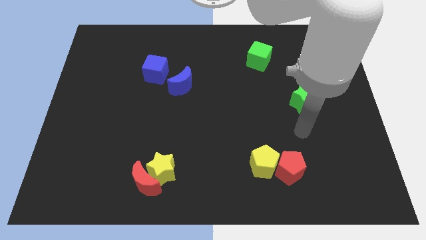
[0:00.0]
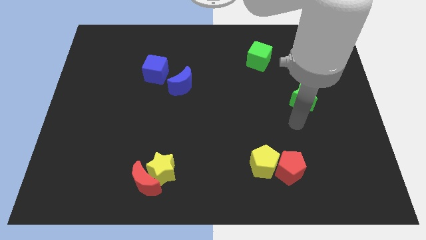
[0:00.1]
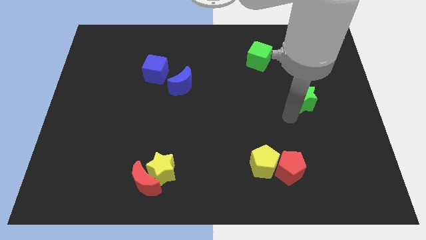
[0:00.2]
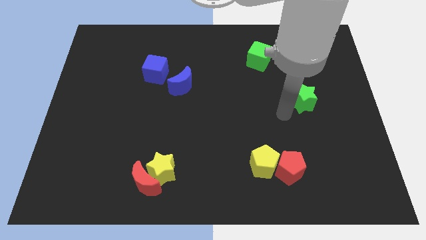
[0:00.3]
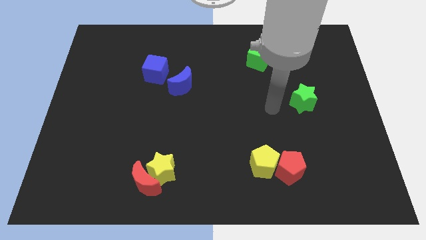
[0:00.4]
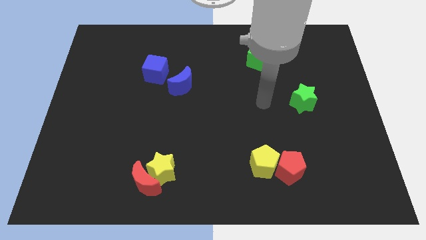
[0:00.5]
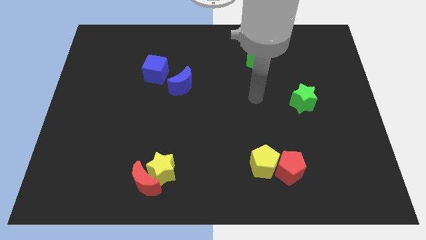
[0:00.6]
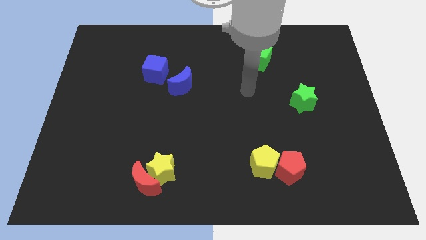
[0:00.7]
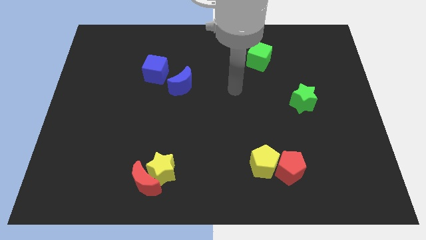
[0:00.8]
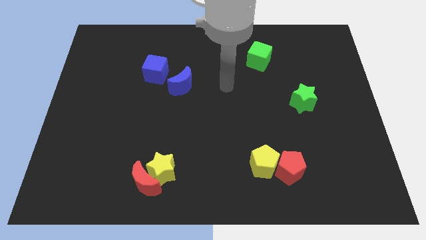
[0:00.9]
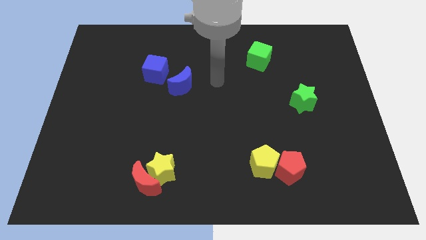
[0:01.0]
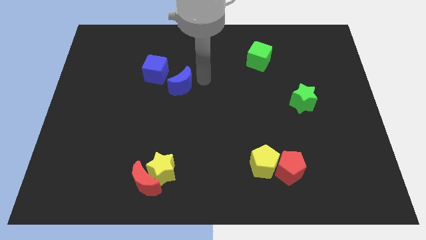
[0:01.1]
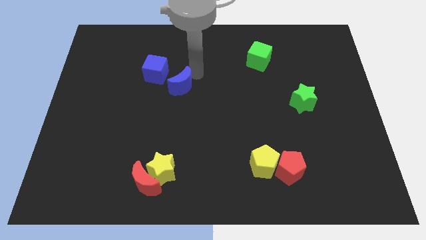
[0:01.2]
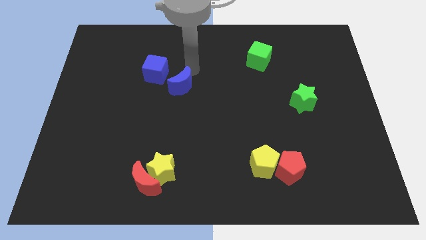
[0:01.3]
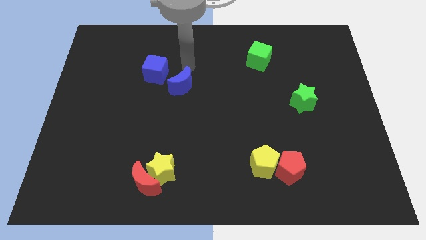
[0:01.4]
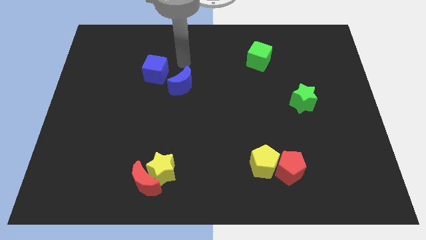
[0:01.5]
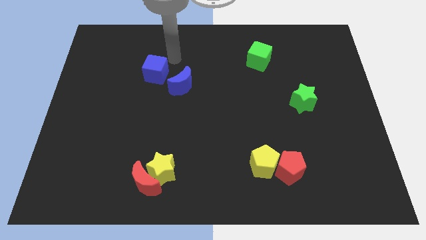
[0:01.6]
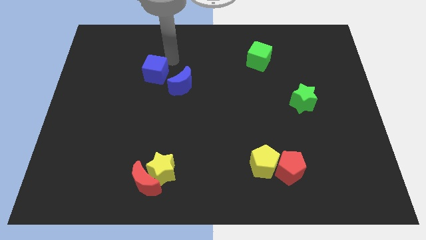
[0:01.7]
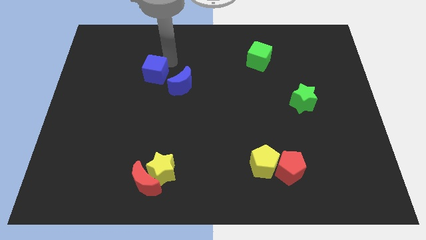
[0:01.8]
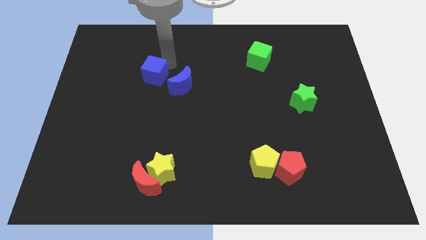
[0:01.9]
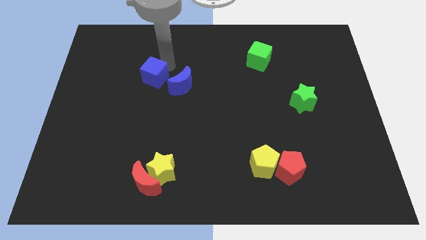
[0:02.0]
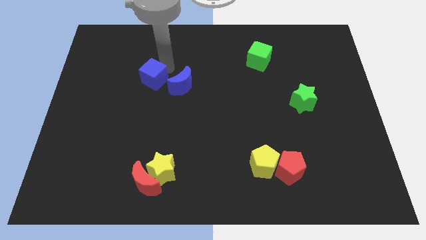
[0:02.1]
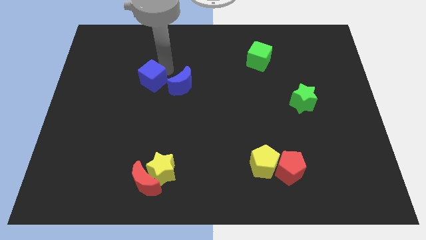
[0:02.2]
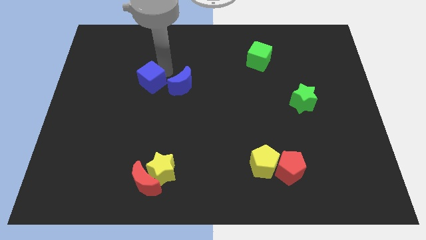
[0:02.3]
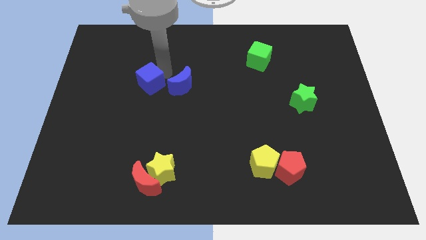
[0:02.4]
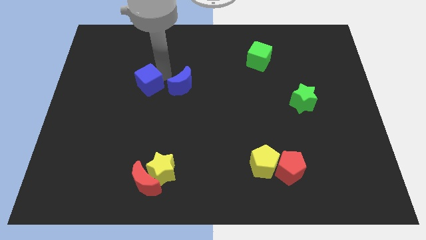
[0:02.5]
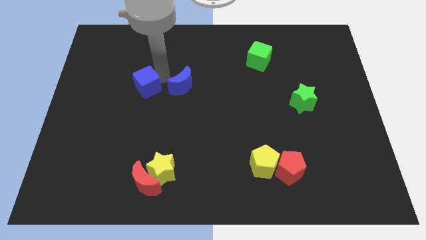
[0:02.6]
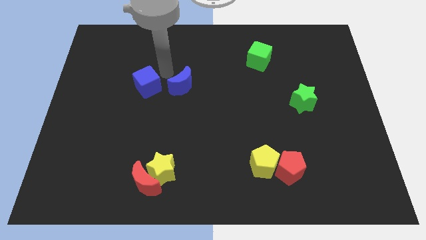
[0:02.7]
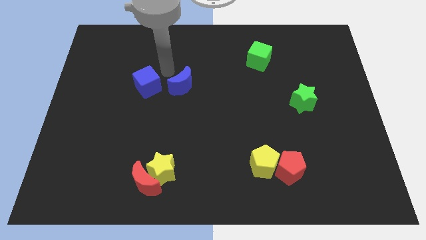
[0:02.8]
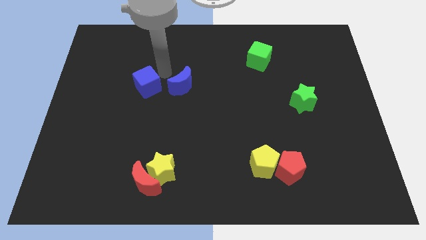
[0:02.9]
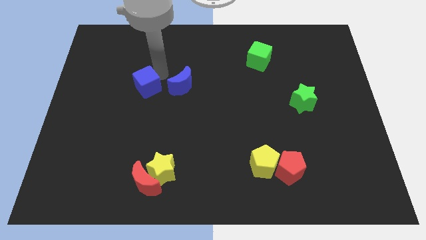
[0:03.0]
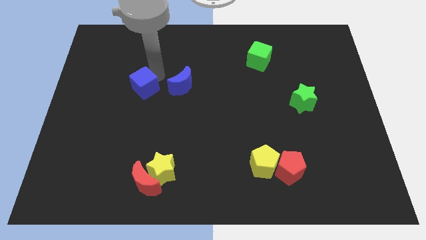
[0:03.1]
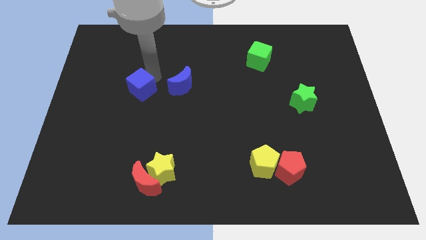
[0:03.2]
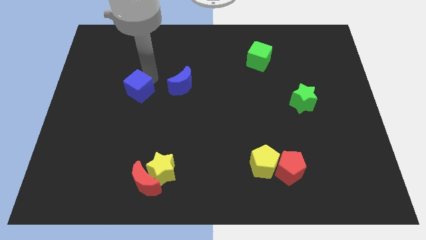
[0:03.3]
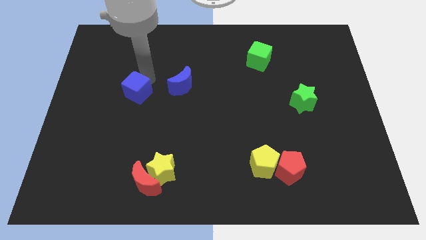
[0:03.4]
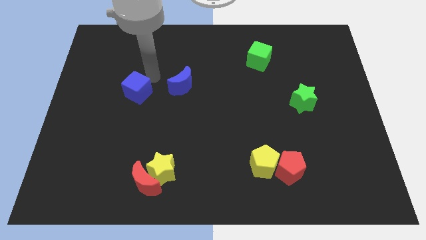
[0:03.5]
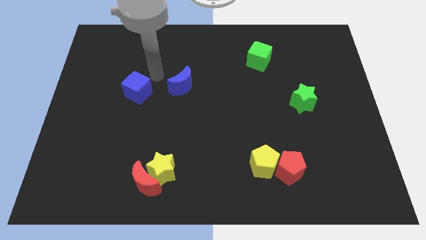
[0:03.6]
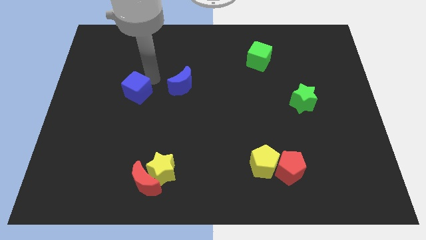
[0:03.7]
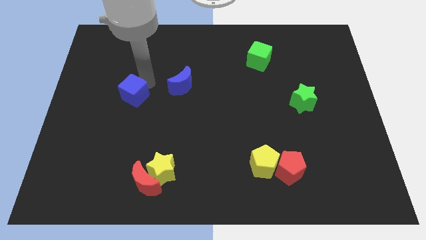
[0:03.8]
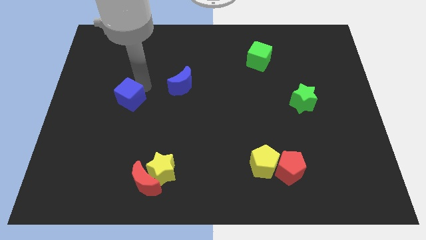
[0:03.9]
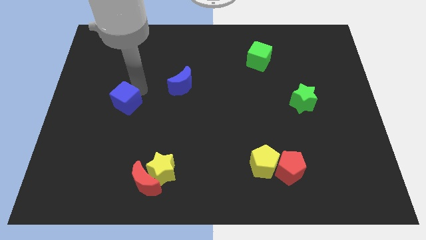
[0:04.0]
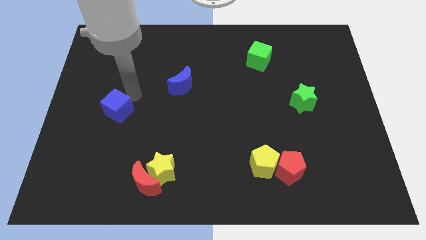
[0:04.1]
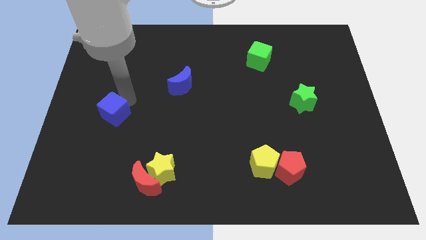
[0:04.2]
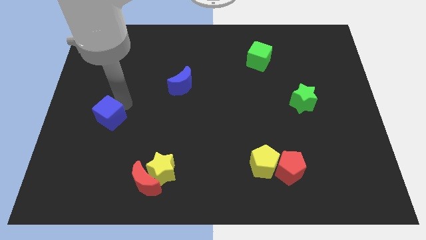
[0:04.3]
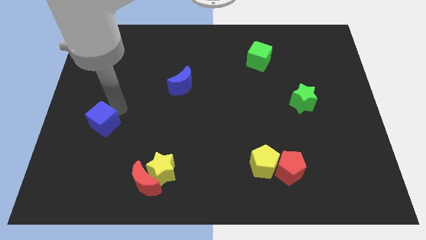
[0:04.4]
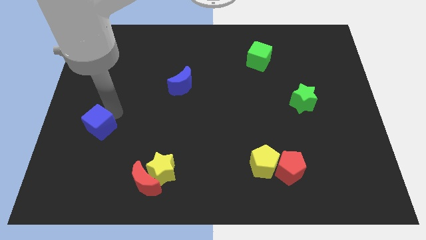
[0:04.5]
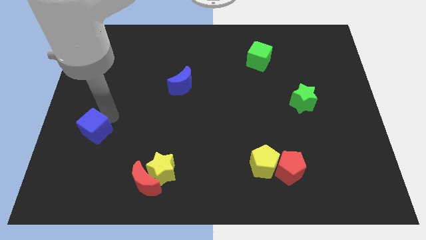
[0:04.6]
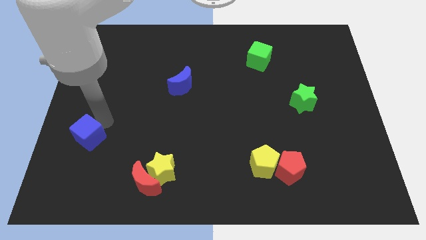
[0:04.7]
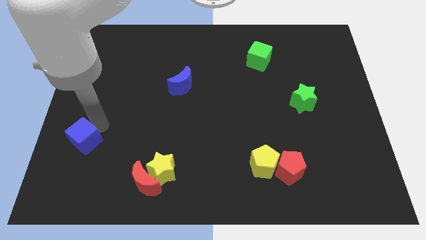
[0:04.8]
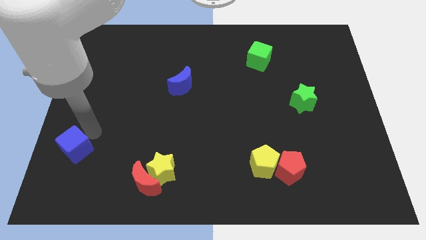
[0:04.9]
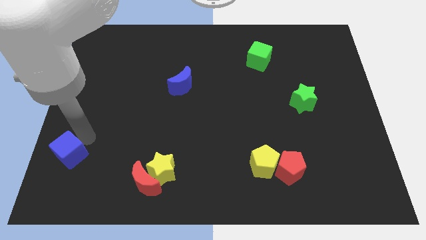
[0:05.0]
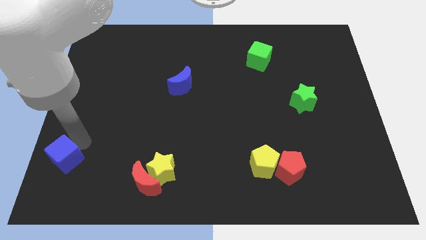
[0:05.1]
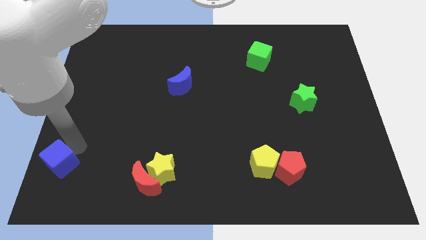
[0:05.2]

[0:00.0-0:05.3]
push the blue cube to the bottom left of the board

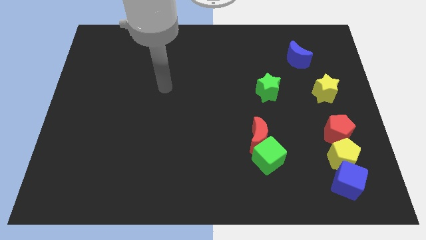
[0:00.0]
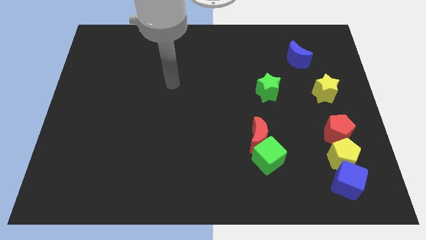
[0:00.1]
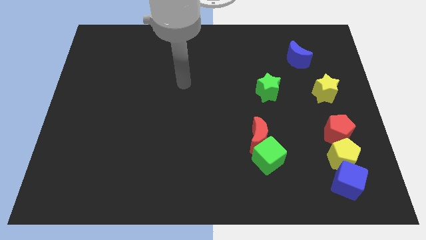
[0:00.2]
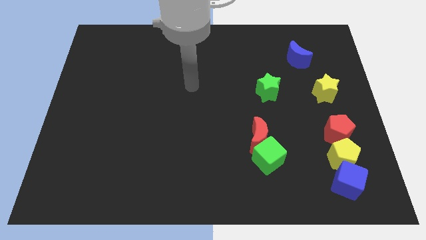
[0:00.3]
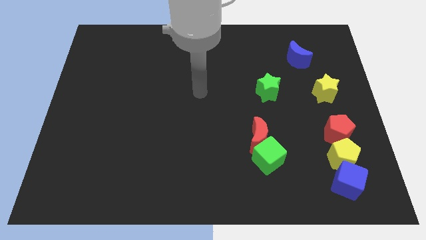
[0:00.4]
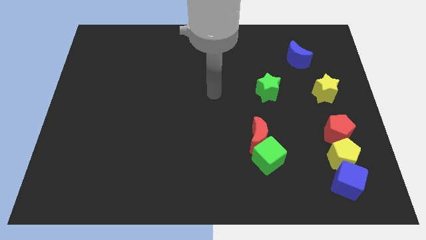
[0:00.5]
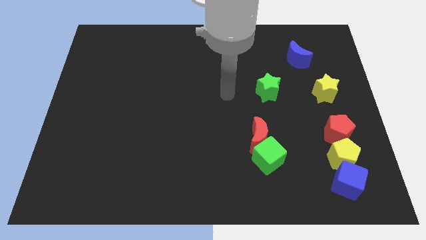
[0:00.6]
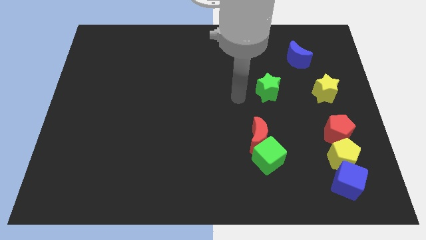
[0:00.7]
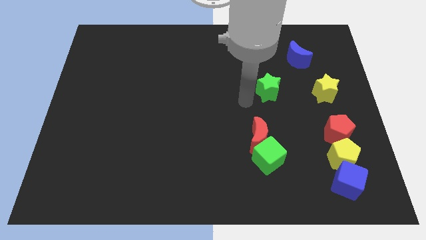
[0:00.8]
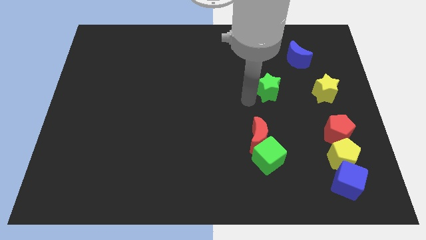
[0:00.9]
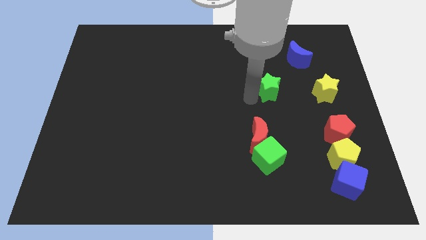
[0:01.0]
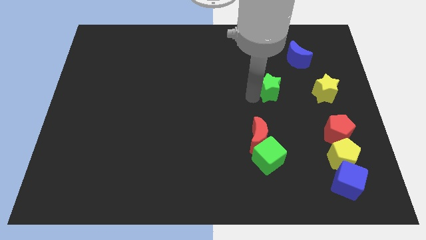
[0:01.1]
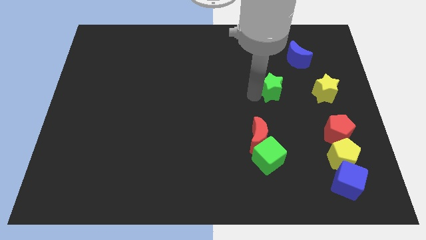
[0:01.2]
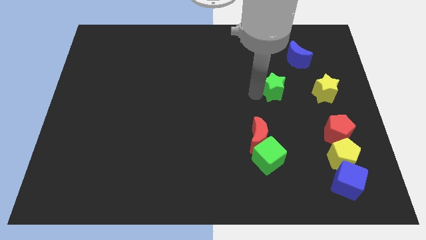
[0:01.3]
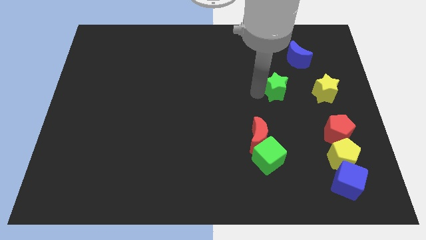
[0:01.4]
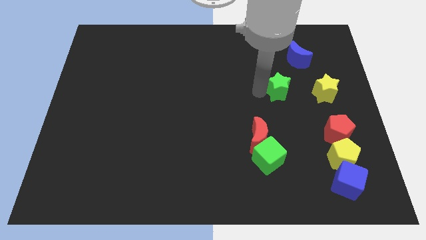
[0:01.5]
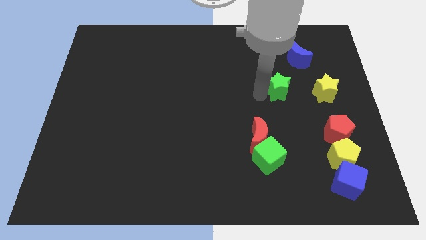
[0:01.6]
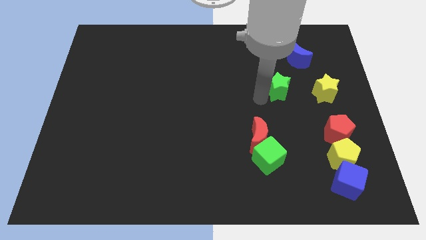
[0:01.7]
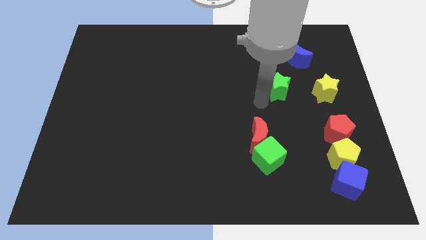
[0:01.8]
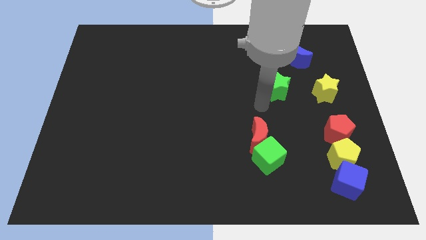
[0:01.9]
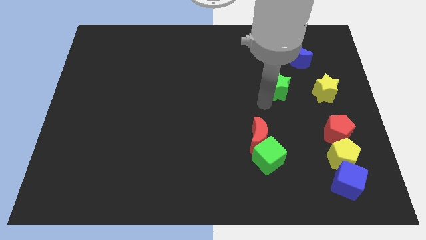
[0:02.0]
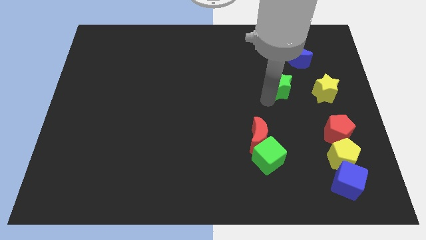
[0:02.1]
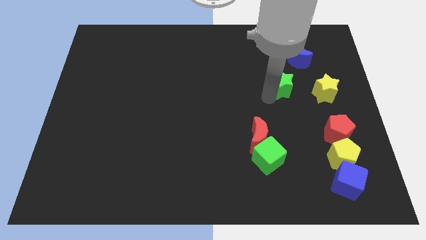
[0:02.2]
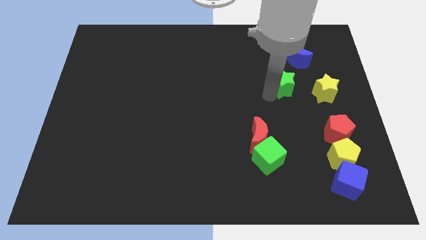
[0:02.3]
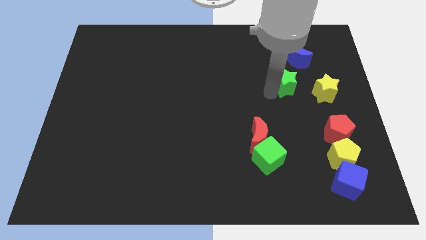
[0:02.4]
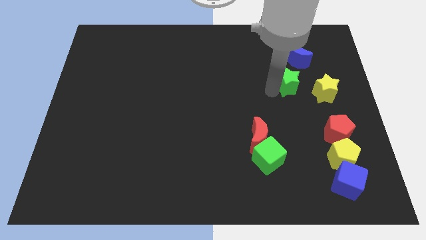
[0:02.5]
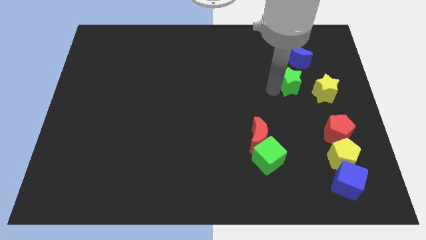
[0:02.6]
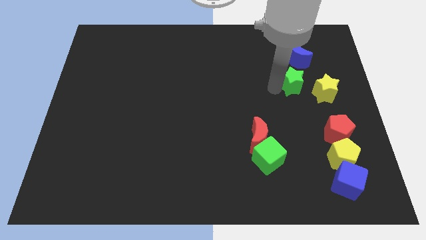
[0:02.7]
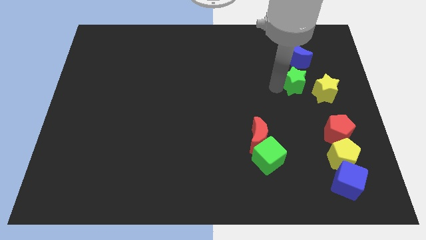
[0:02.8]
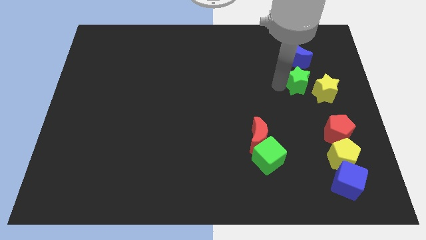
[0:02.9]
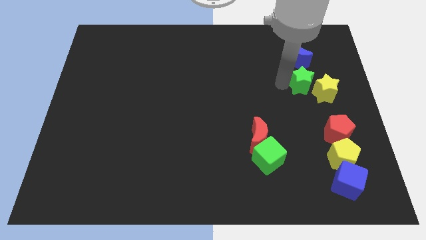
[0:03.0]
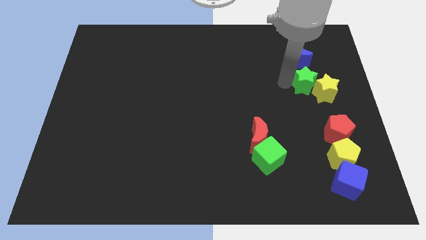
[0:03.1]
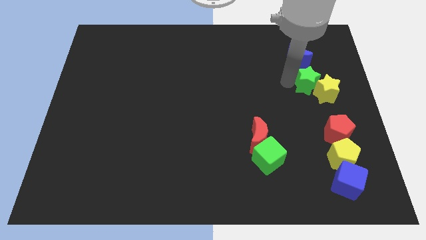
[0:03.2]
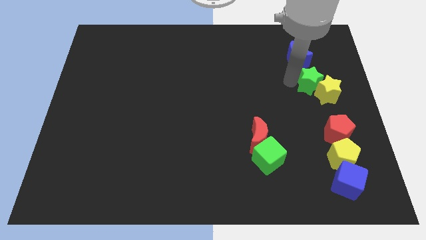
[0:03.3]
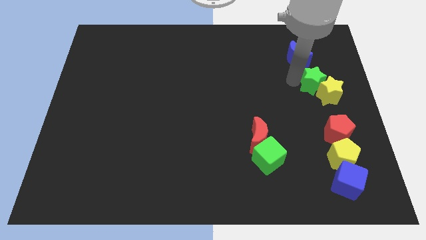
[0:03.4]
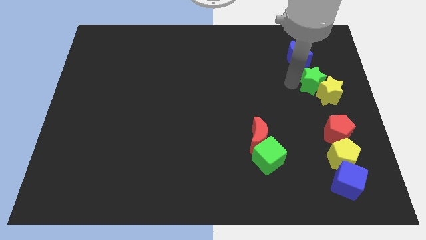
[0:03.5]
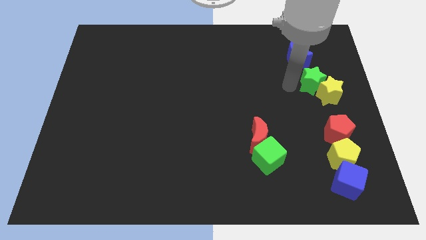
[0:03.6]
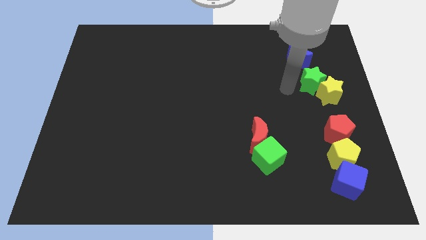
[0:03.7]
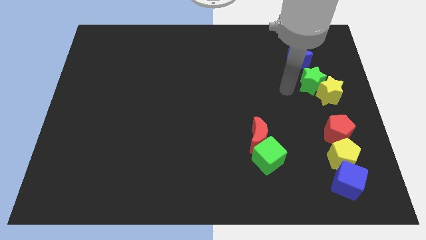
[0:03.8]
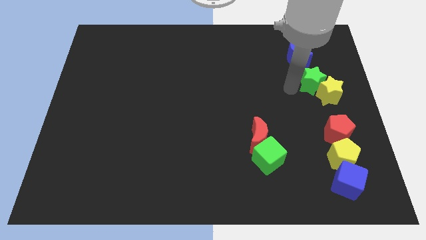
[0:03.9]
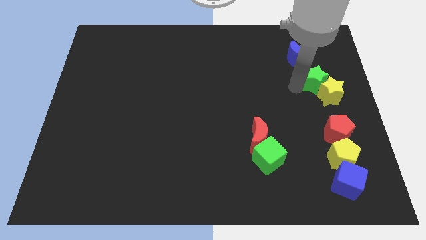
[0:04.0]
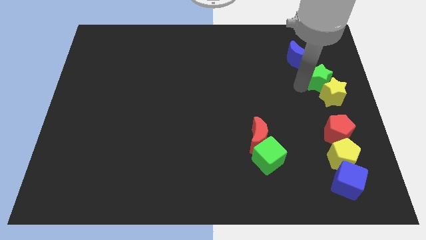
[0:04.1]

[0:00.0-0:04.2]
put the green star to the center right
